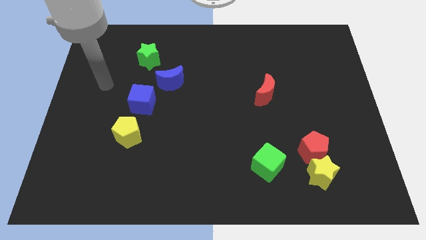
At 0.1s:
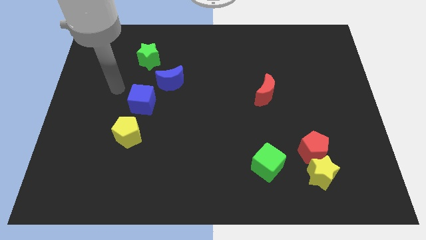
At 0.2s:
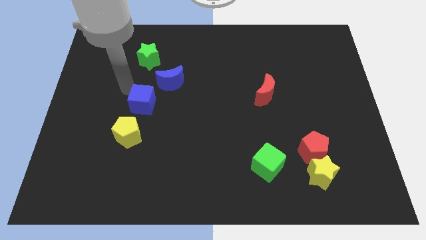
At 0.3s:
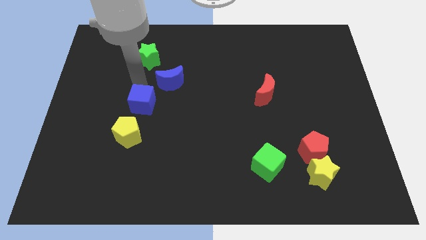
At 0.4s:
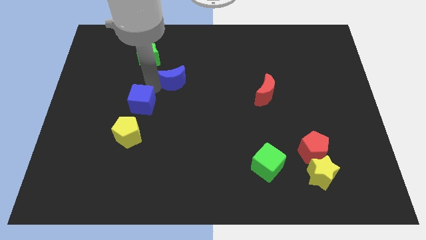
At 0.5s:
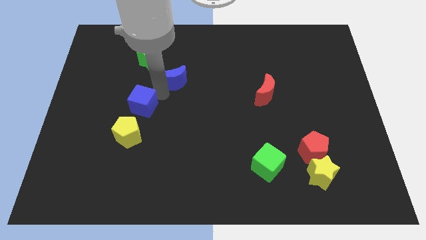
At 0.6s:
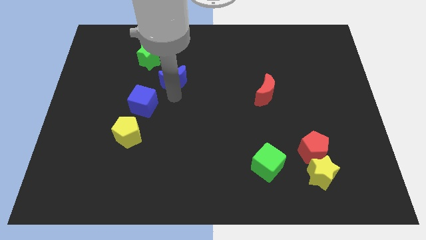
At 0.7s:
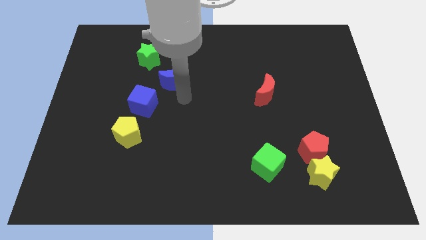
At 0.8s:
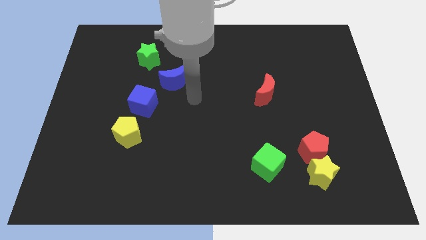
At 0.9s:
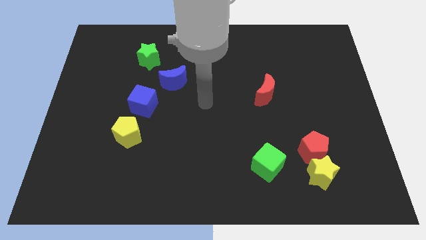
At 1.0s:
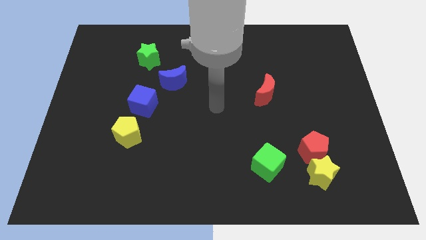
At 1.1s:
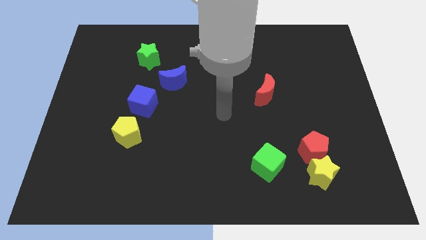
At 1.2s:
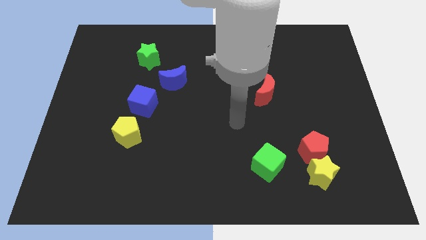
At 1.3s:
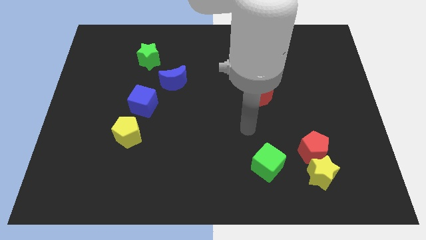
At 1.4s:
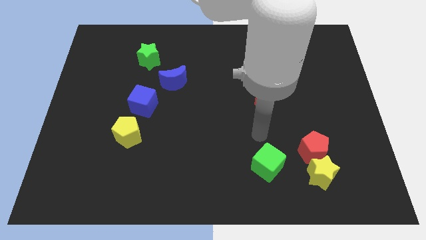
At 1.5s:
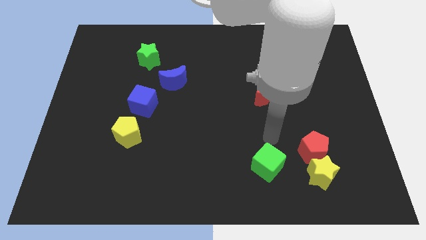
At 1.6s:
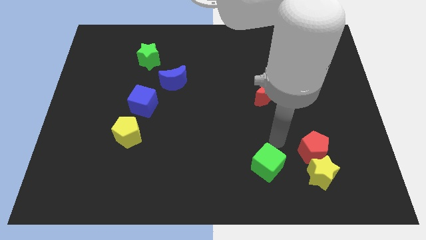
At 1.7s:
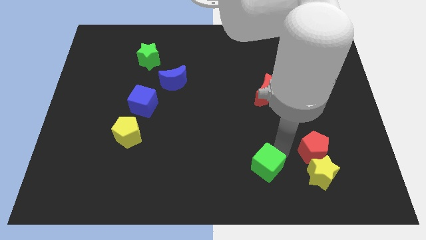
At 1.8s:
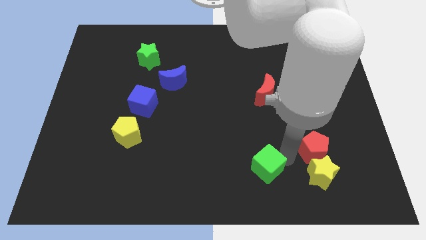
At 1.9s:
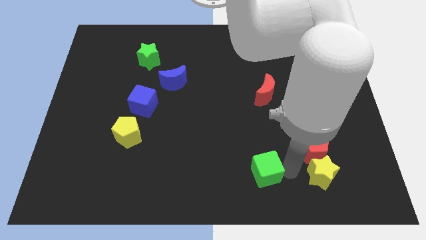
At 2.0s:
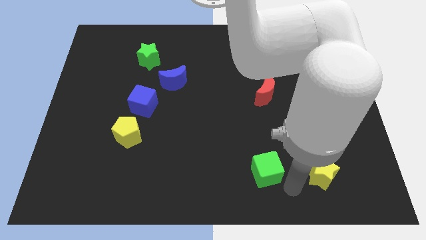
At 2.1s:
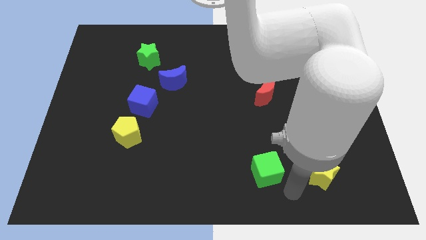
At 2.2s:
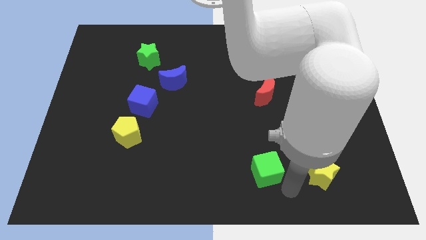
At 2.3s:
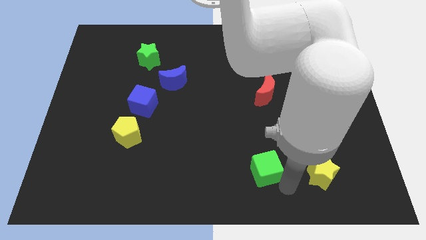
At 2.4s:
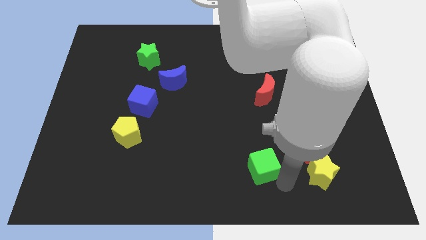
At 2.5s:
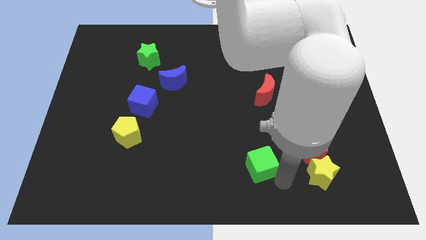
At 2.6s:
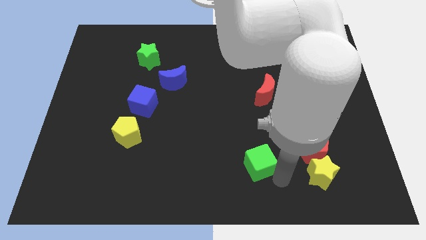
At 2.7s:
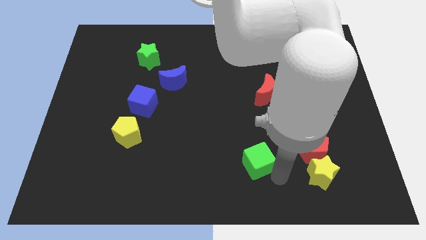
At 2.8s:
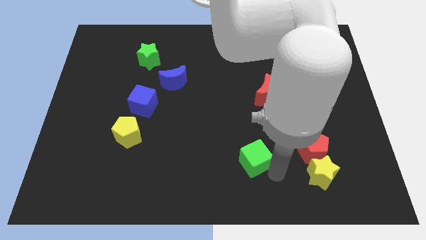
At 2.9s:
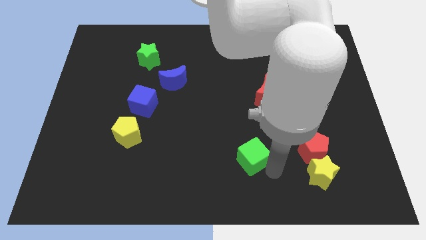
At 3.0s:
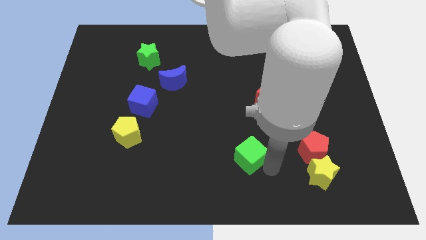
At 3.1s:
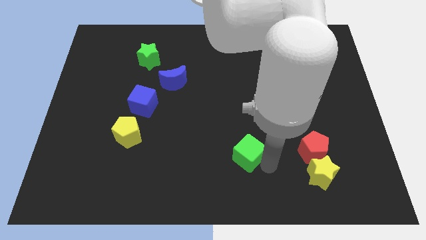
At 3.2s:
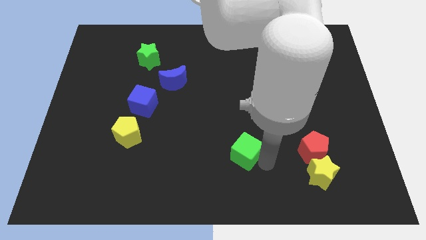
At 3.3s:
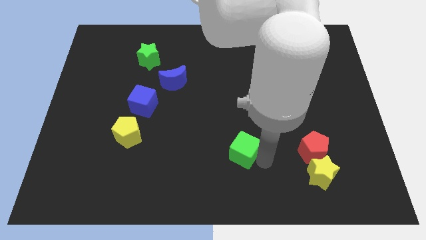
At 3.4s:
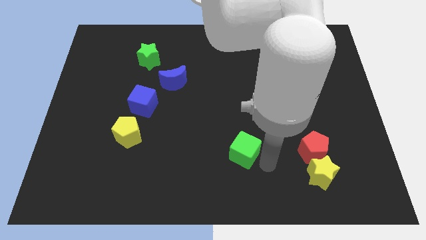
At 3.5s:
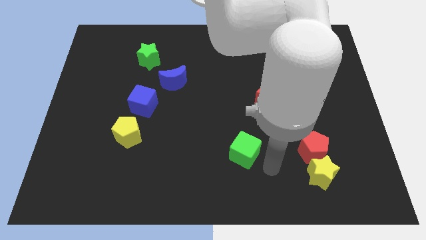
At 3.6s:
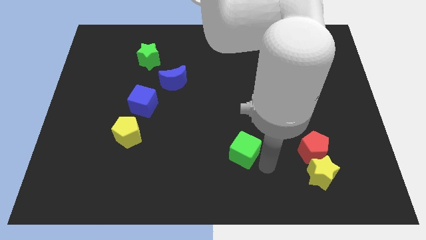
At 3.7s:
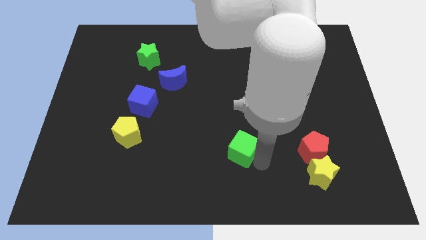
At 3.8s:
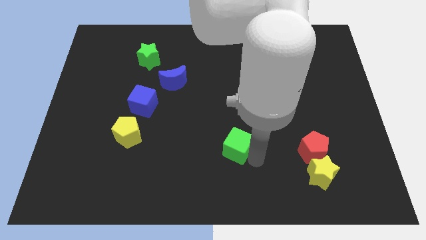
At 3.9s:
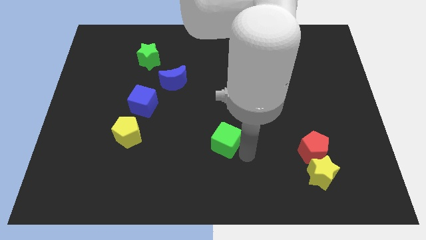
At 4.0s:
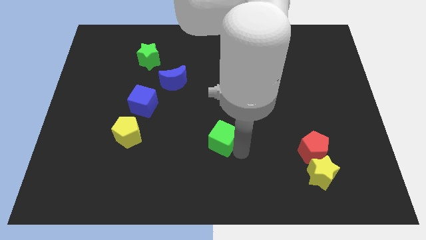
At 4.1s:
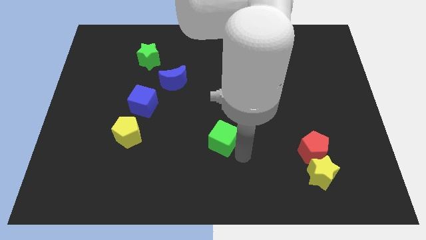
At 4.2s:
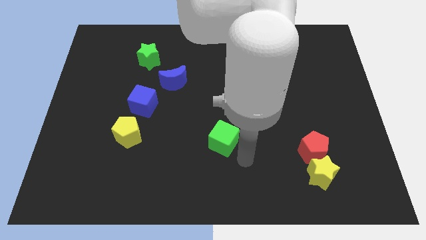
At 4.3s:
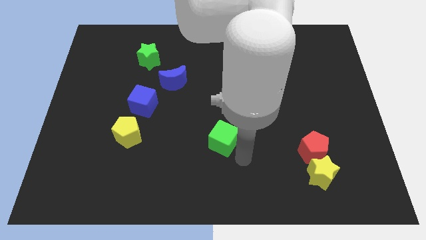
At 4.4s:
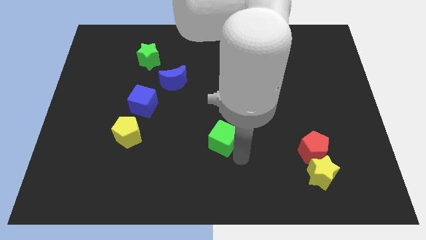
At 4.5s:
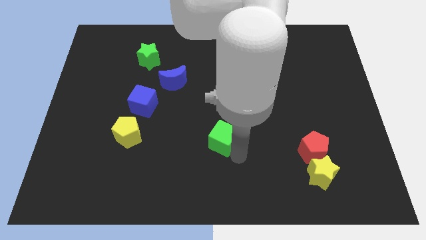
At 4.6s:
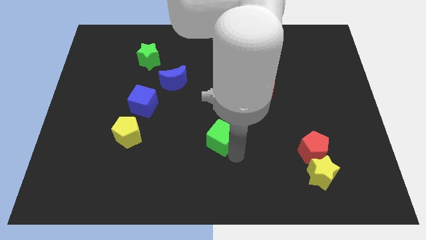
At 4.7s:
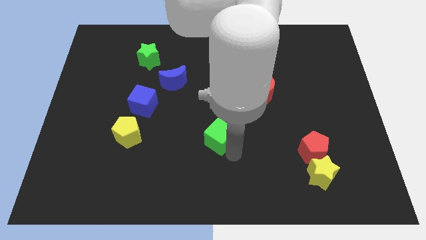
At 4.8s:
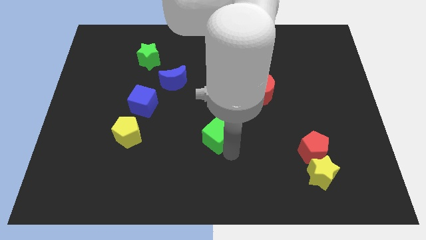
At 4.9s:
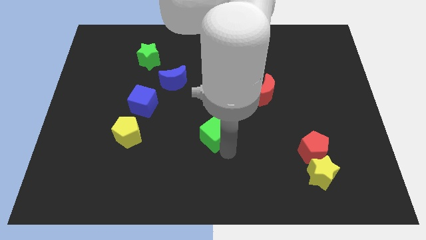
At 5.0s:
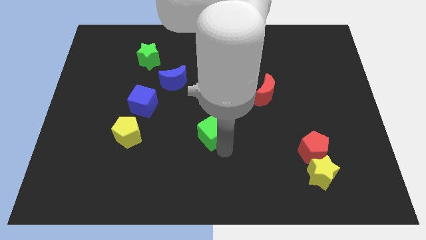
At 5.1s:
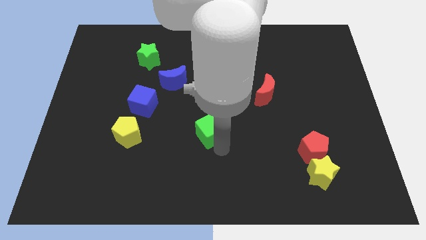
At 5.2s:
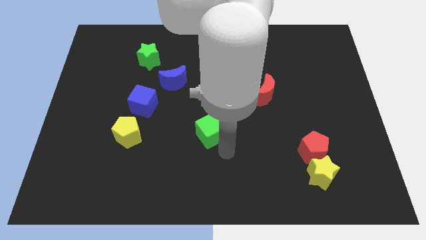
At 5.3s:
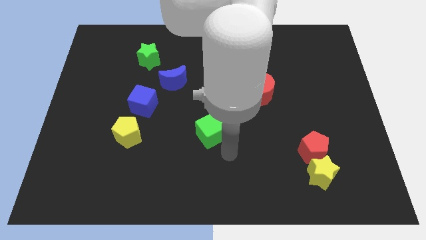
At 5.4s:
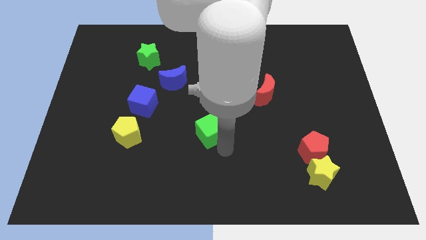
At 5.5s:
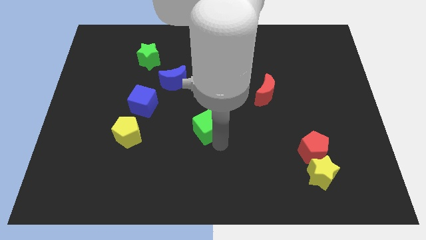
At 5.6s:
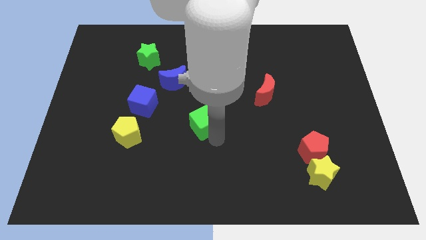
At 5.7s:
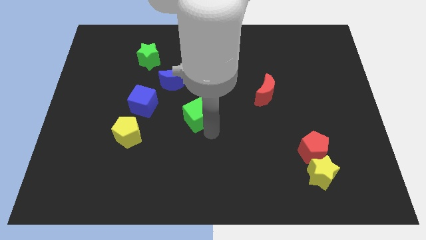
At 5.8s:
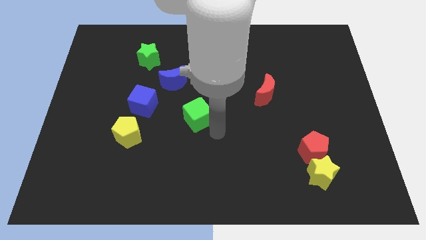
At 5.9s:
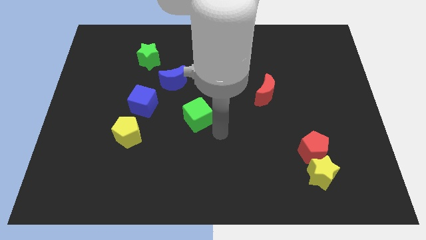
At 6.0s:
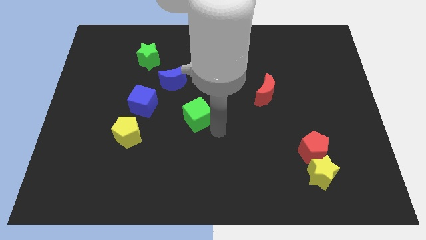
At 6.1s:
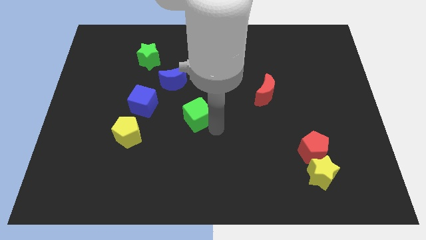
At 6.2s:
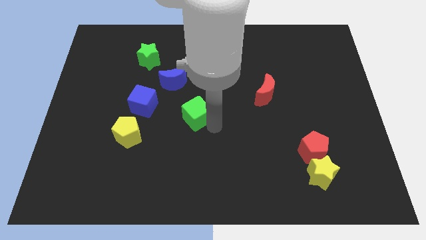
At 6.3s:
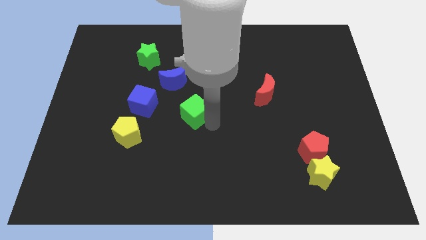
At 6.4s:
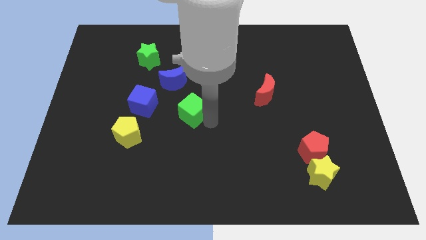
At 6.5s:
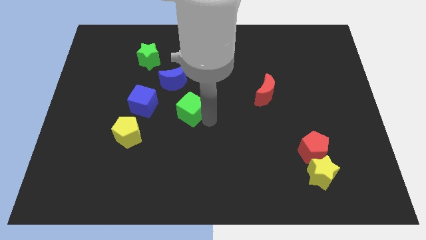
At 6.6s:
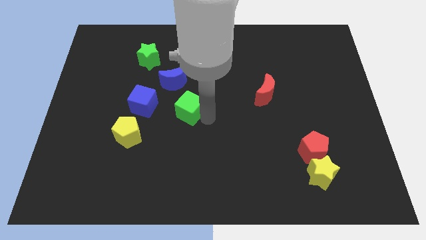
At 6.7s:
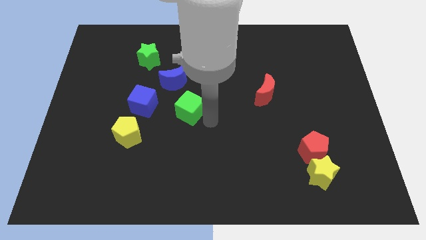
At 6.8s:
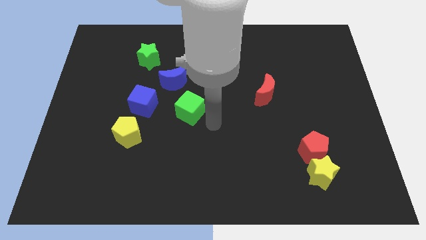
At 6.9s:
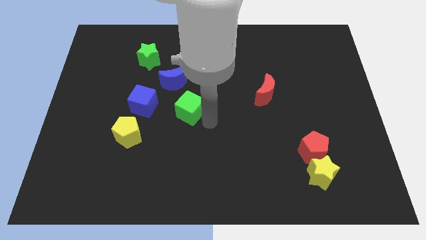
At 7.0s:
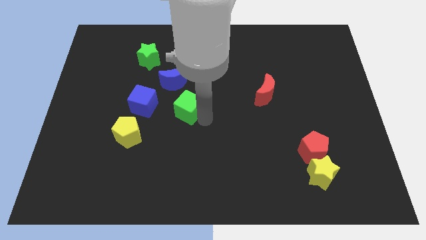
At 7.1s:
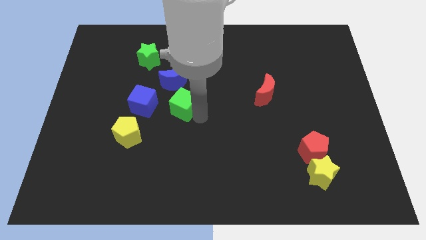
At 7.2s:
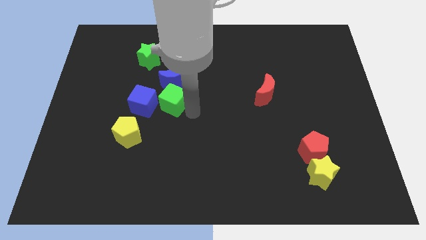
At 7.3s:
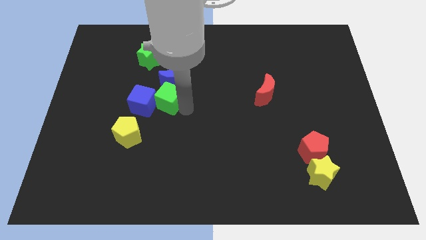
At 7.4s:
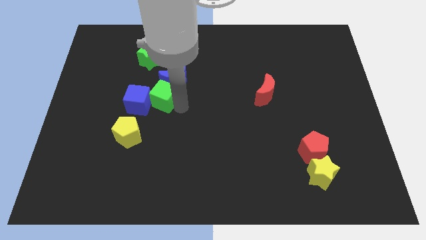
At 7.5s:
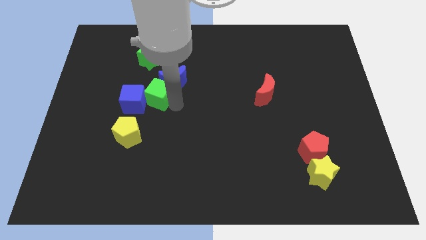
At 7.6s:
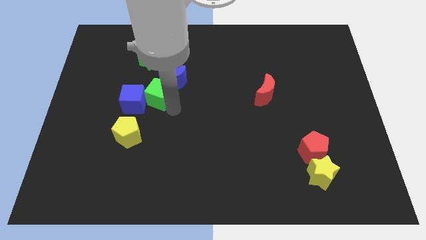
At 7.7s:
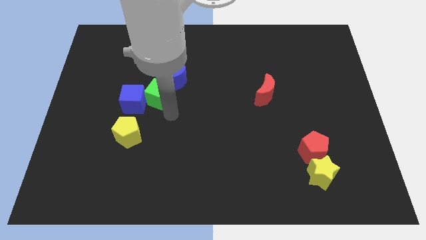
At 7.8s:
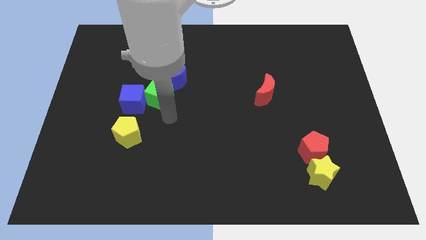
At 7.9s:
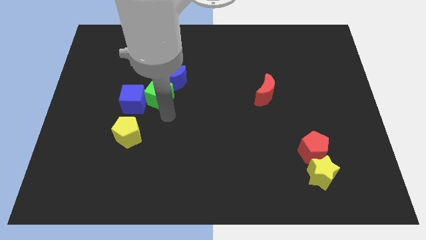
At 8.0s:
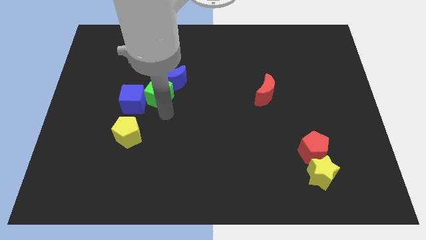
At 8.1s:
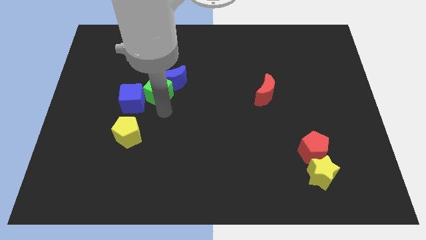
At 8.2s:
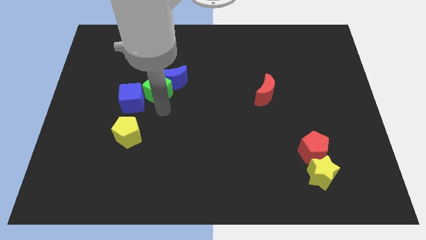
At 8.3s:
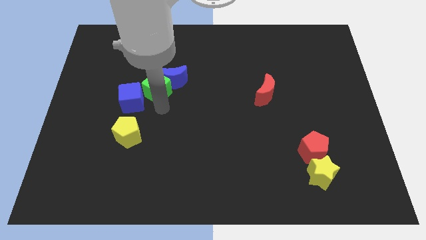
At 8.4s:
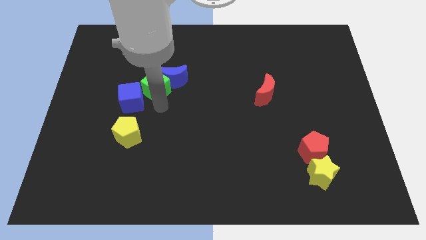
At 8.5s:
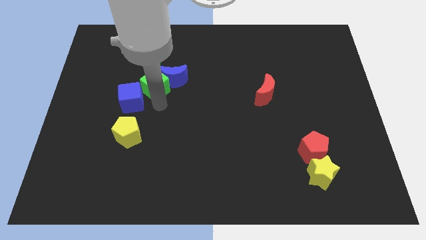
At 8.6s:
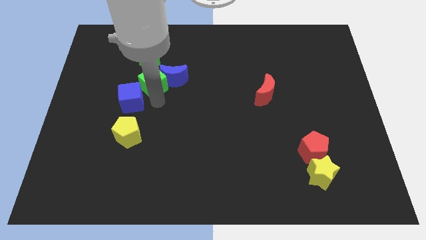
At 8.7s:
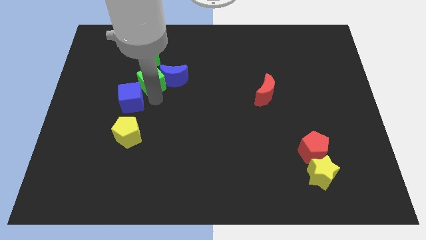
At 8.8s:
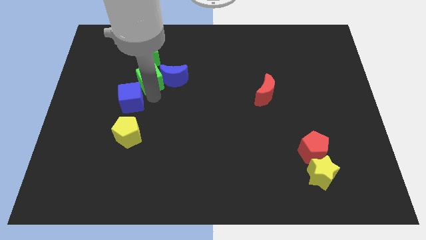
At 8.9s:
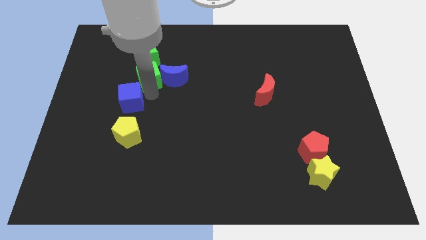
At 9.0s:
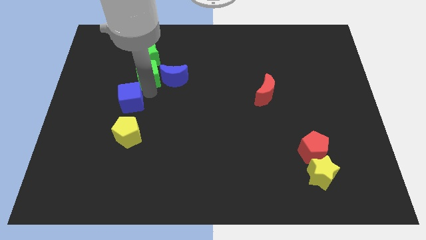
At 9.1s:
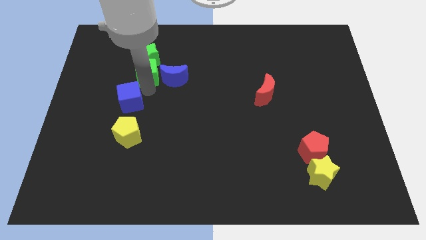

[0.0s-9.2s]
put the green cube close to the green star
